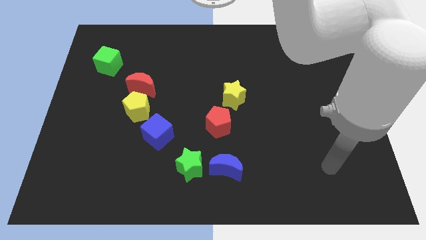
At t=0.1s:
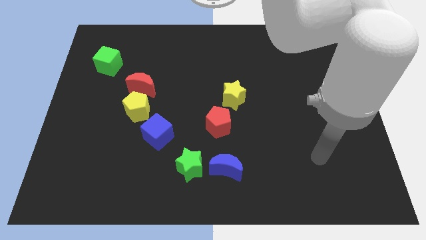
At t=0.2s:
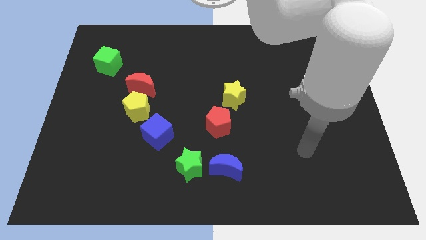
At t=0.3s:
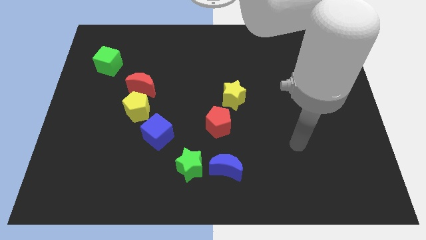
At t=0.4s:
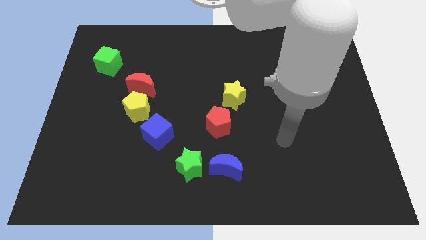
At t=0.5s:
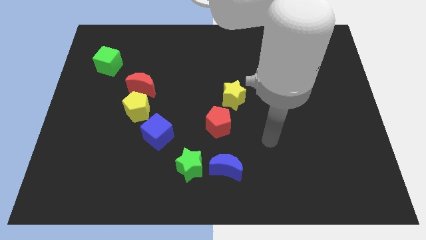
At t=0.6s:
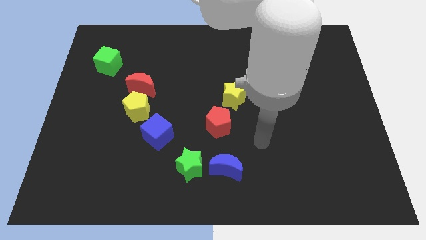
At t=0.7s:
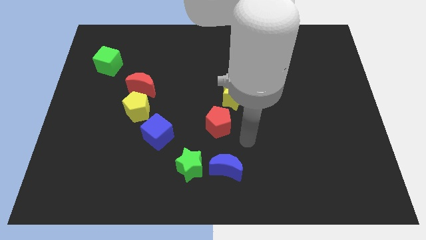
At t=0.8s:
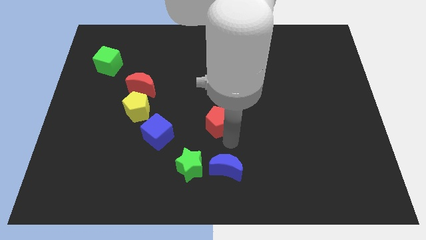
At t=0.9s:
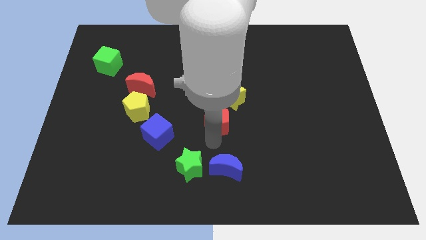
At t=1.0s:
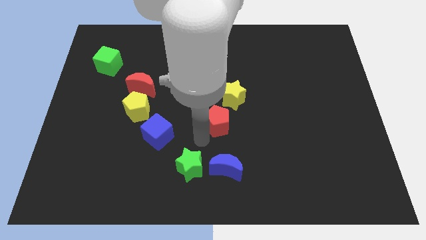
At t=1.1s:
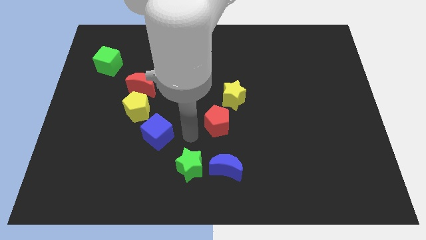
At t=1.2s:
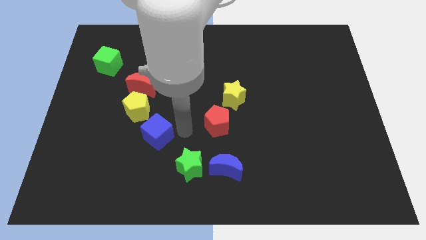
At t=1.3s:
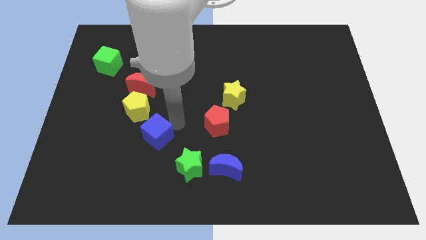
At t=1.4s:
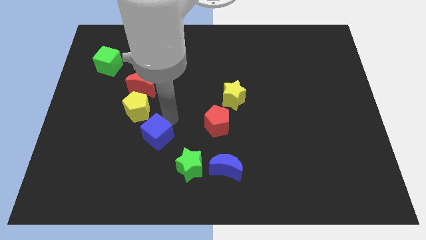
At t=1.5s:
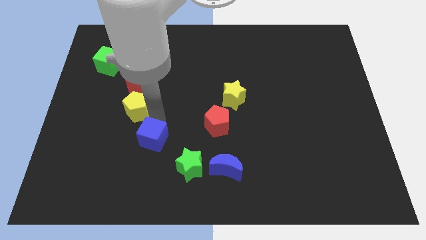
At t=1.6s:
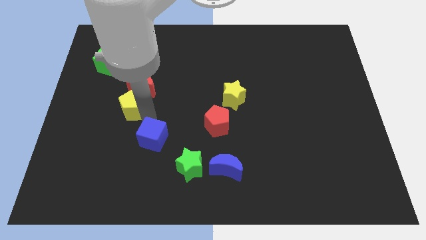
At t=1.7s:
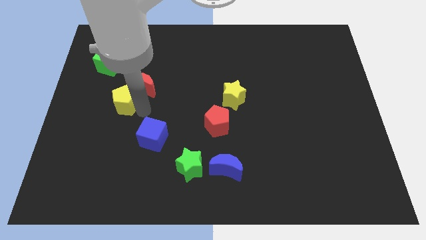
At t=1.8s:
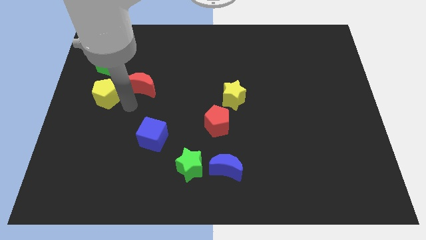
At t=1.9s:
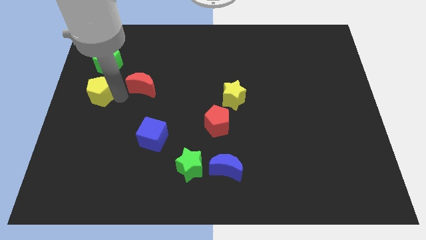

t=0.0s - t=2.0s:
separate the red moon from the yellow pentagon

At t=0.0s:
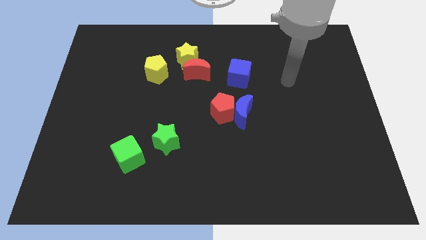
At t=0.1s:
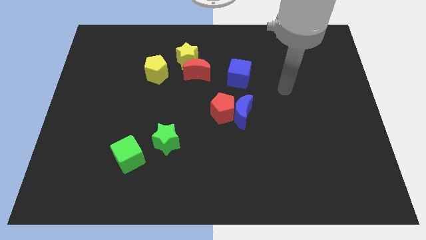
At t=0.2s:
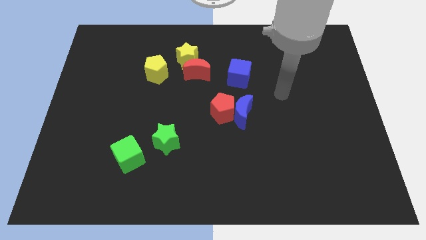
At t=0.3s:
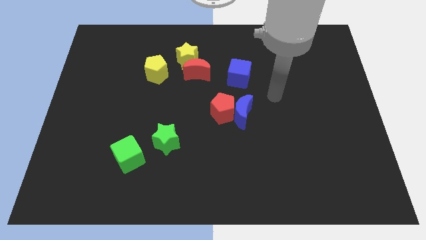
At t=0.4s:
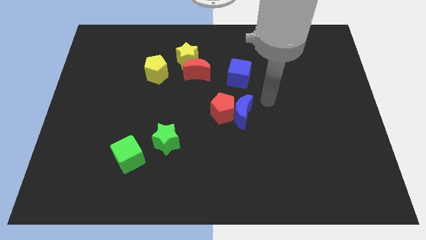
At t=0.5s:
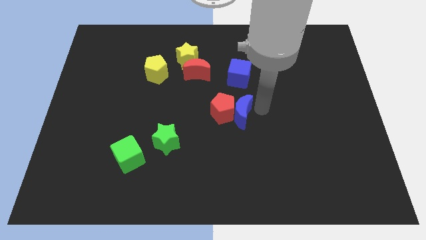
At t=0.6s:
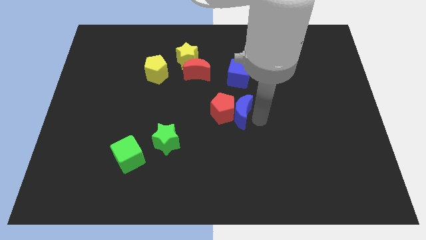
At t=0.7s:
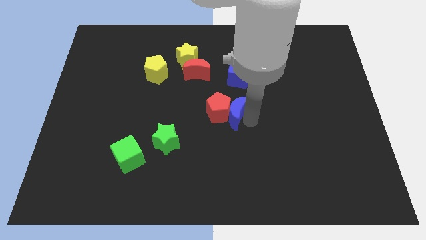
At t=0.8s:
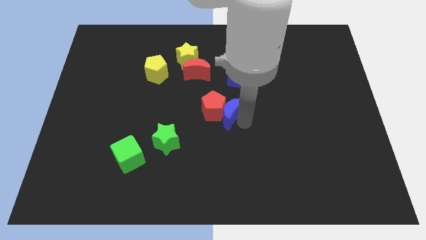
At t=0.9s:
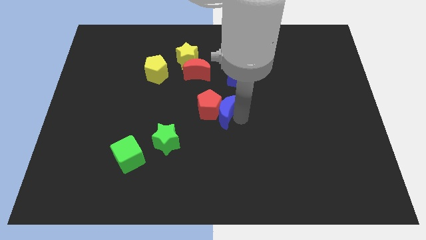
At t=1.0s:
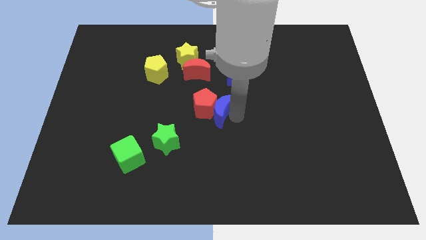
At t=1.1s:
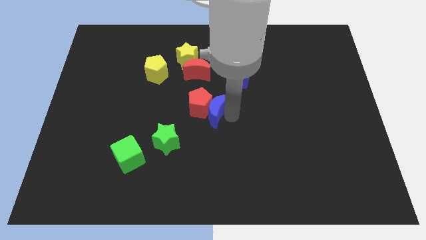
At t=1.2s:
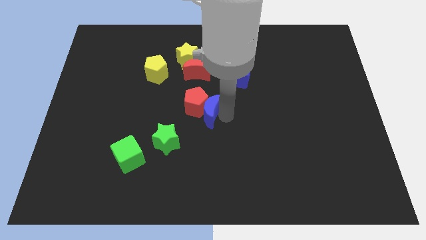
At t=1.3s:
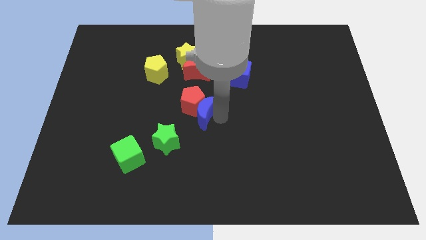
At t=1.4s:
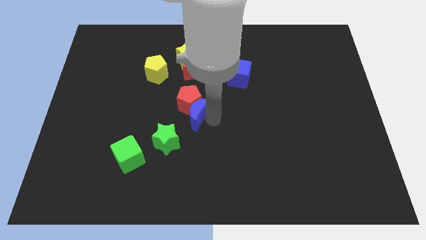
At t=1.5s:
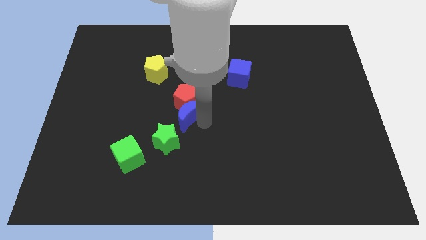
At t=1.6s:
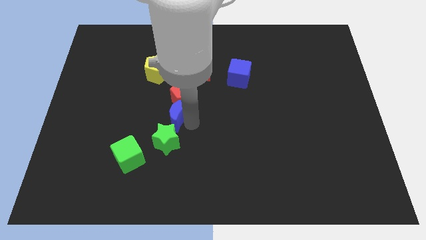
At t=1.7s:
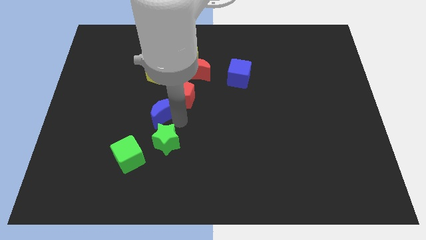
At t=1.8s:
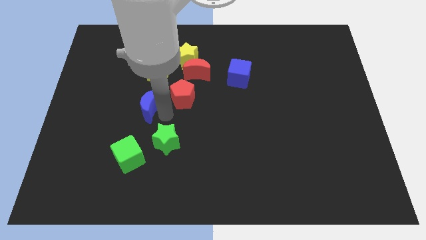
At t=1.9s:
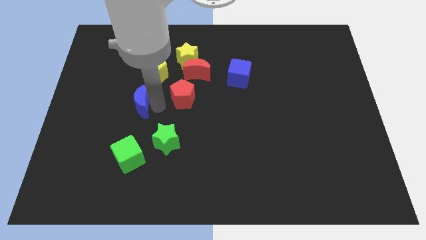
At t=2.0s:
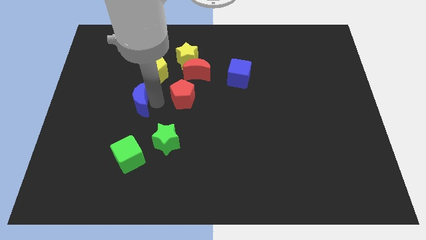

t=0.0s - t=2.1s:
move the red pentagon away from the blue moon

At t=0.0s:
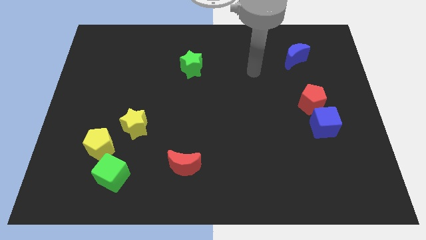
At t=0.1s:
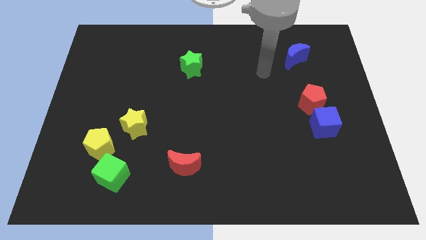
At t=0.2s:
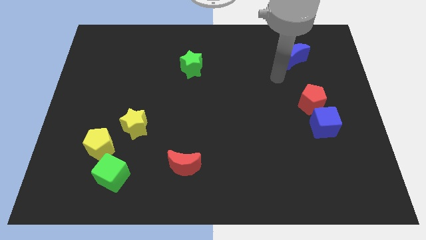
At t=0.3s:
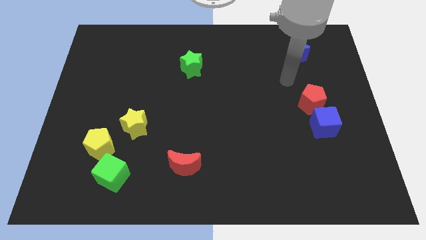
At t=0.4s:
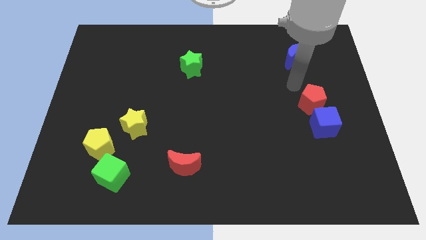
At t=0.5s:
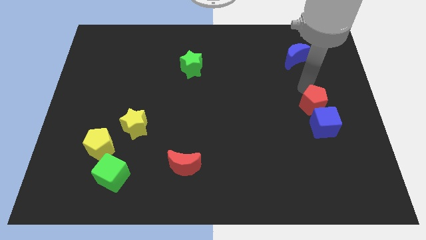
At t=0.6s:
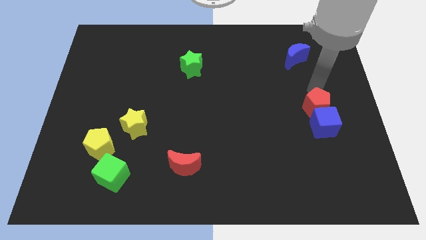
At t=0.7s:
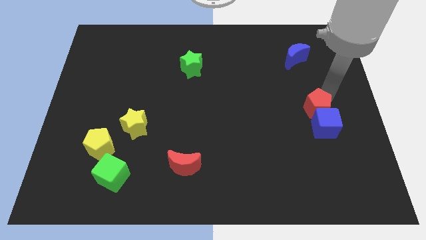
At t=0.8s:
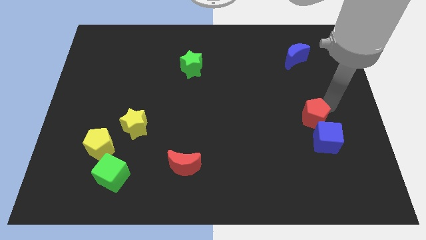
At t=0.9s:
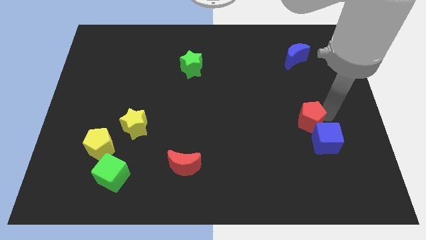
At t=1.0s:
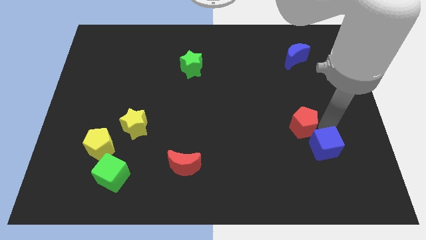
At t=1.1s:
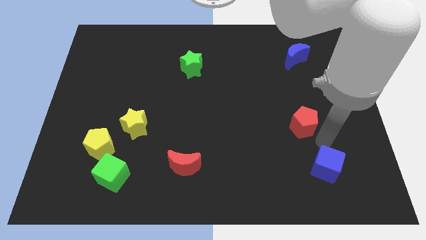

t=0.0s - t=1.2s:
separate the red pentagon from the blue cube

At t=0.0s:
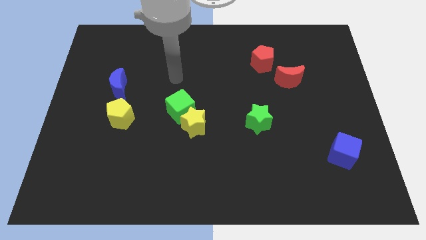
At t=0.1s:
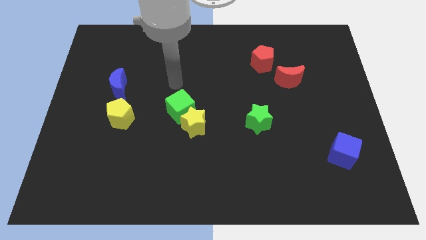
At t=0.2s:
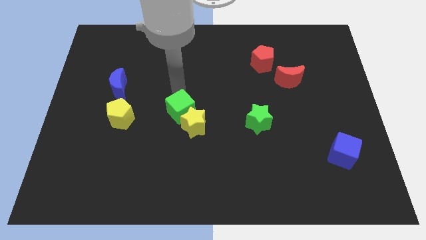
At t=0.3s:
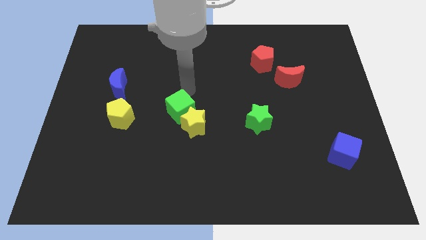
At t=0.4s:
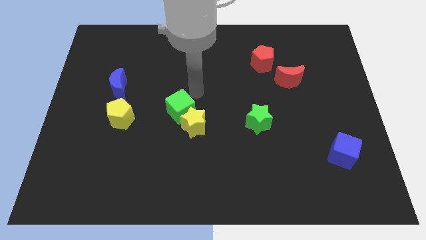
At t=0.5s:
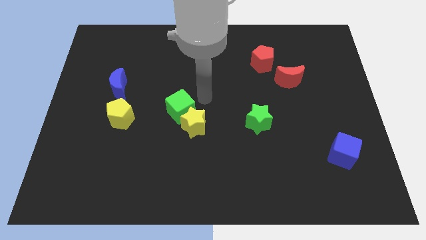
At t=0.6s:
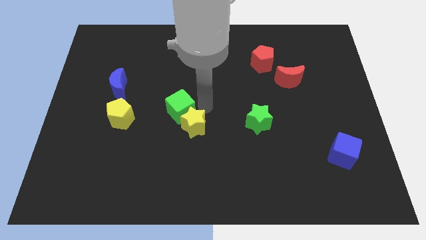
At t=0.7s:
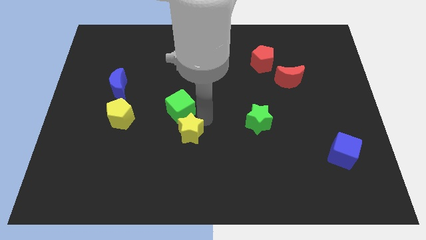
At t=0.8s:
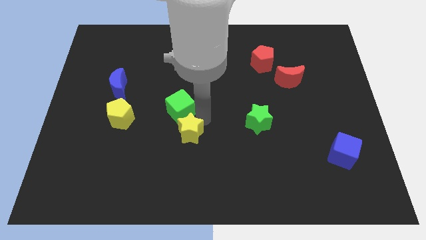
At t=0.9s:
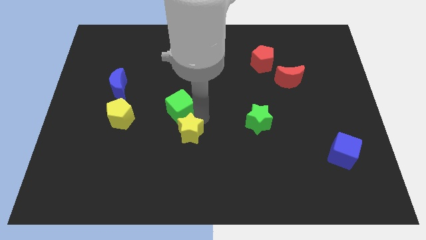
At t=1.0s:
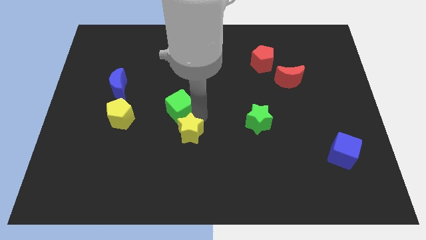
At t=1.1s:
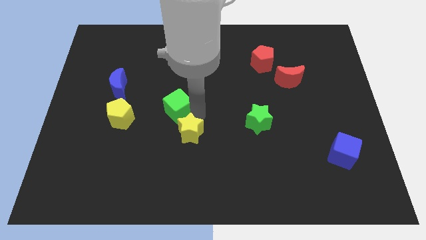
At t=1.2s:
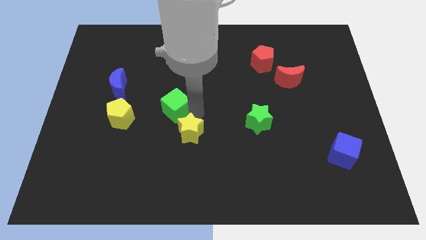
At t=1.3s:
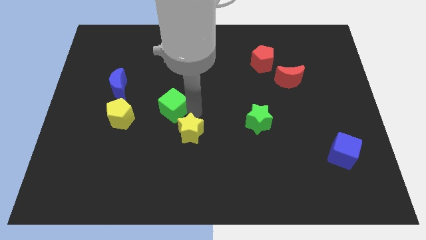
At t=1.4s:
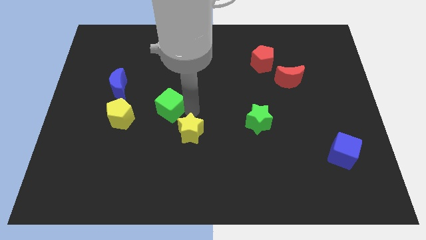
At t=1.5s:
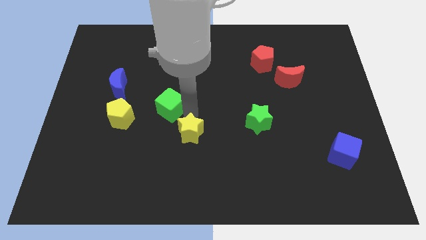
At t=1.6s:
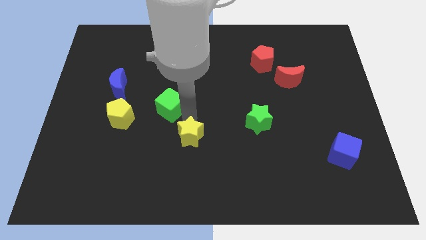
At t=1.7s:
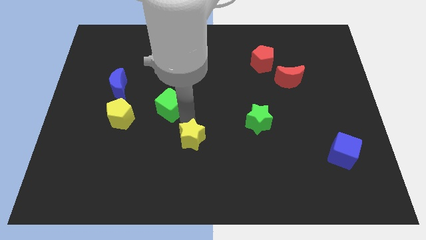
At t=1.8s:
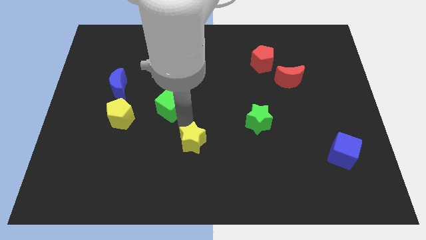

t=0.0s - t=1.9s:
move the green cube away from the yellow star

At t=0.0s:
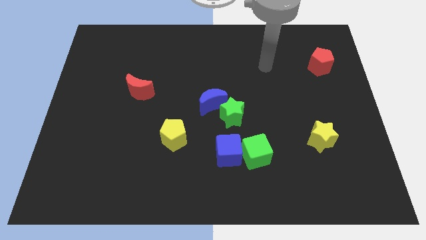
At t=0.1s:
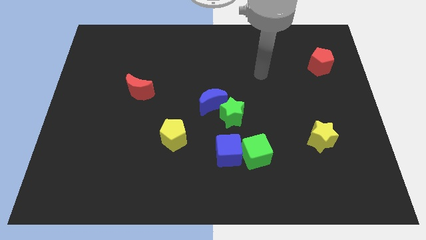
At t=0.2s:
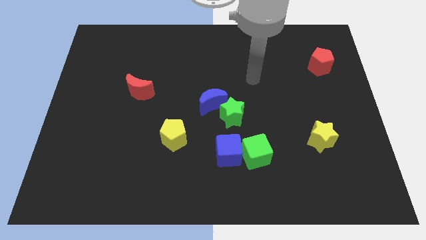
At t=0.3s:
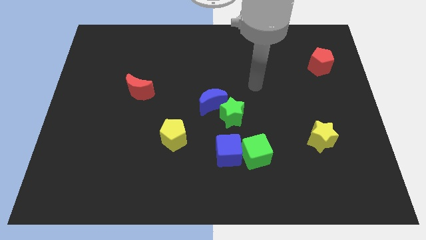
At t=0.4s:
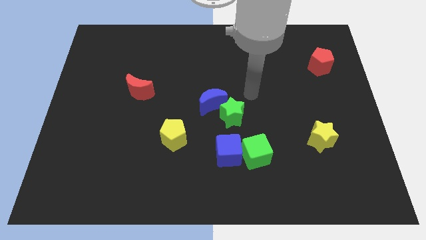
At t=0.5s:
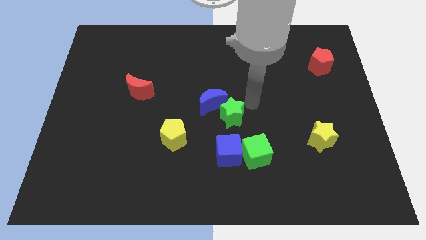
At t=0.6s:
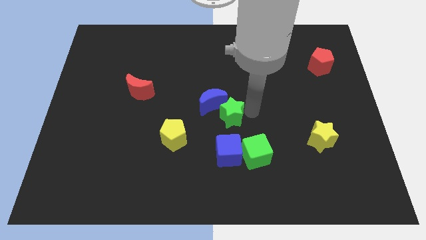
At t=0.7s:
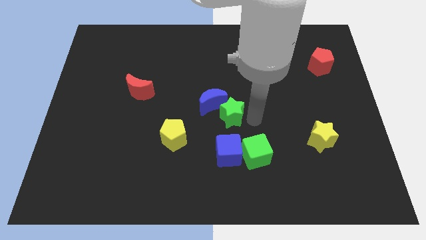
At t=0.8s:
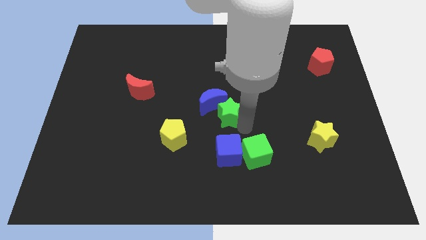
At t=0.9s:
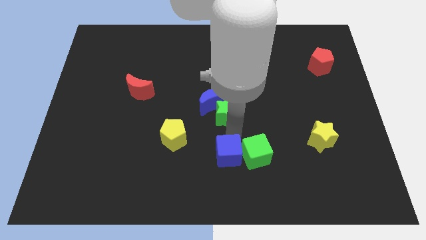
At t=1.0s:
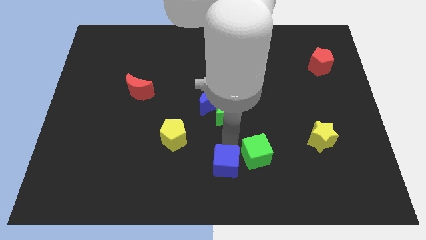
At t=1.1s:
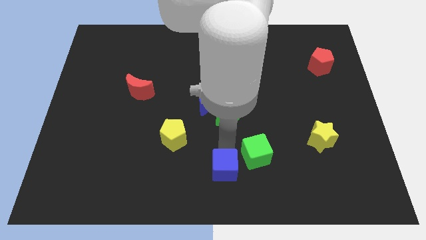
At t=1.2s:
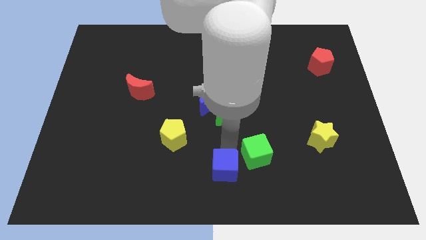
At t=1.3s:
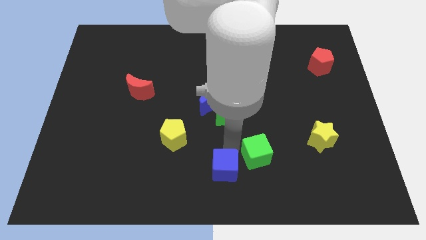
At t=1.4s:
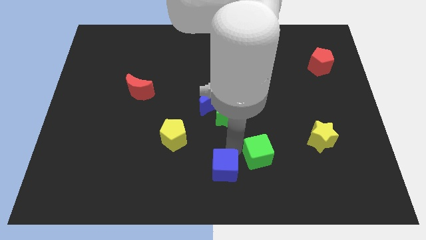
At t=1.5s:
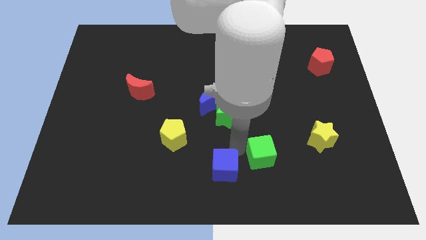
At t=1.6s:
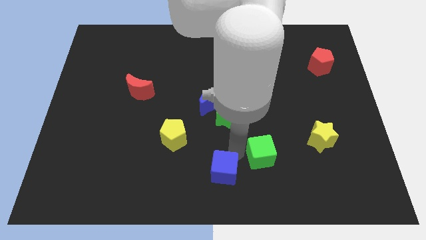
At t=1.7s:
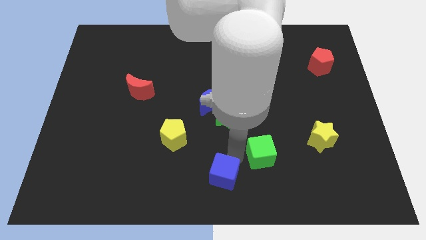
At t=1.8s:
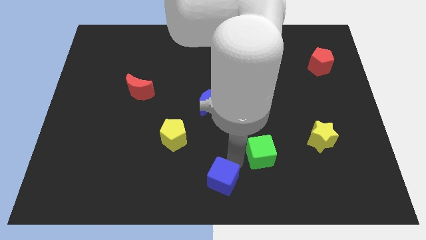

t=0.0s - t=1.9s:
move the green cube away from the blue cube
